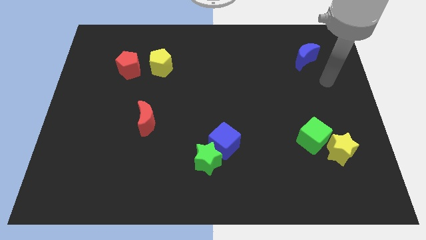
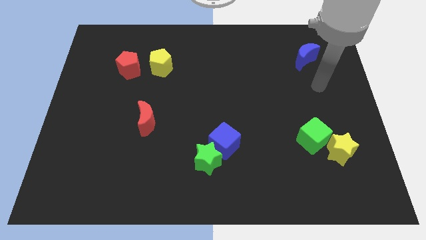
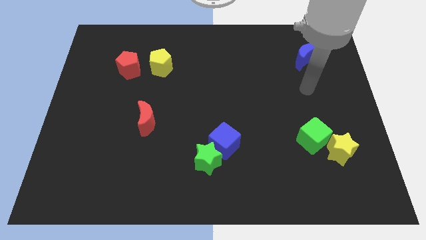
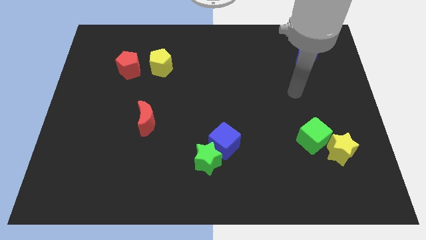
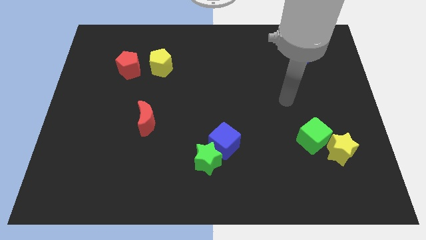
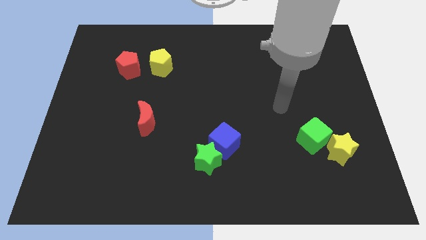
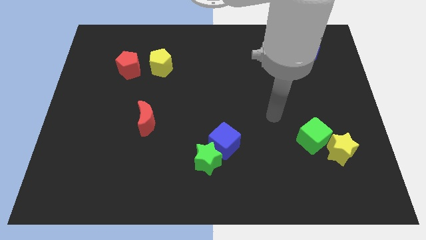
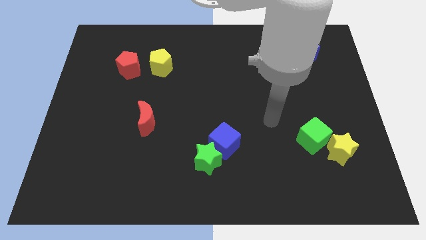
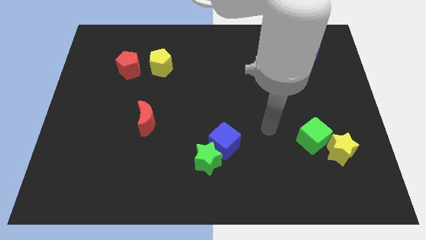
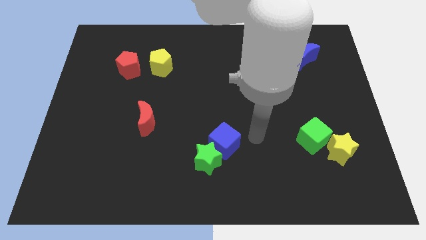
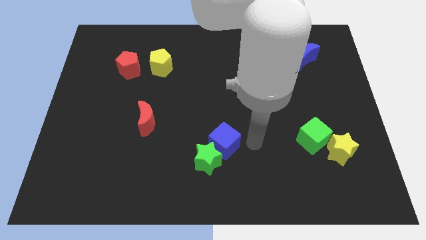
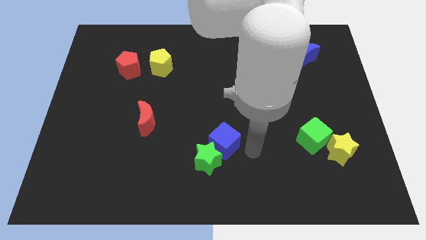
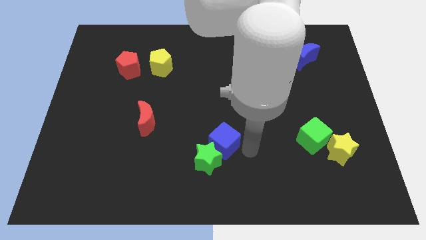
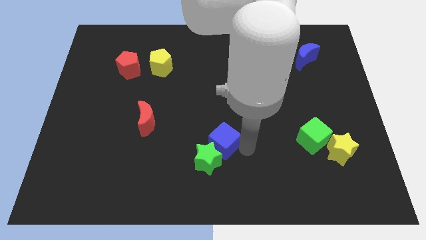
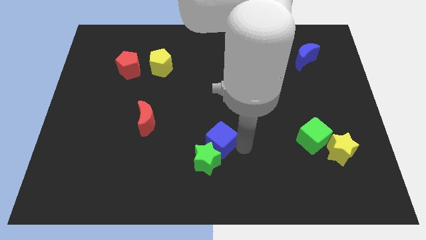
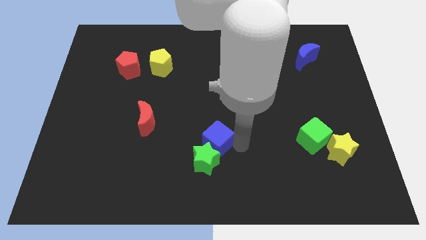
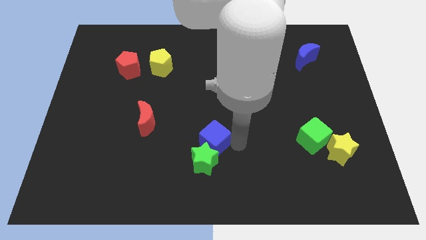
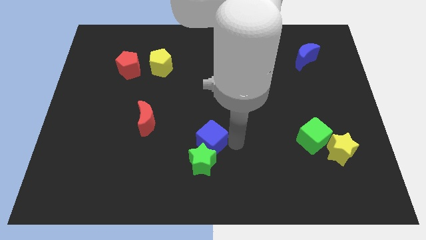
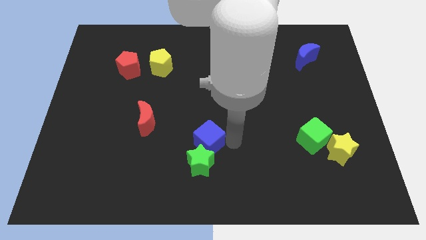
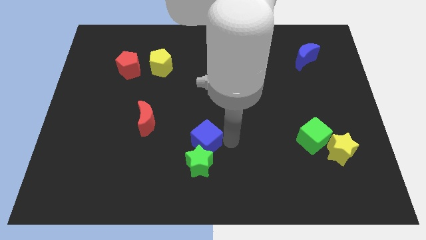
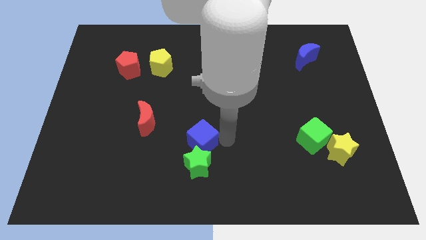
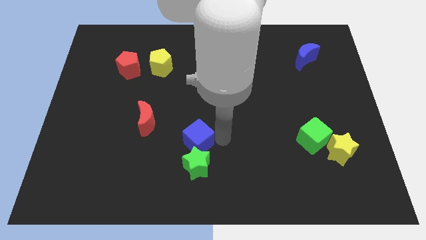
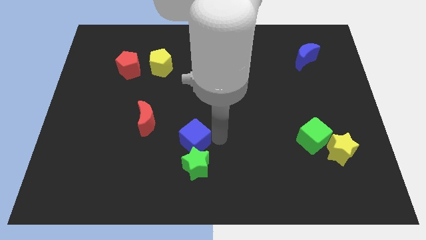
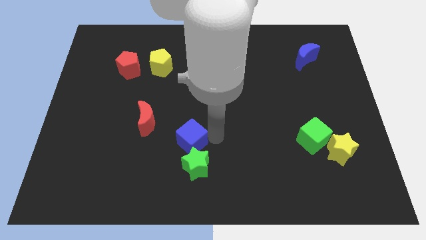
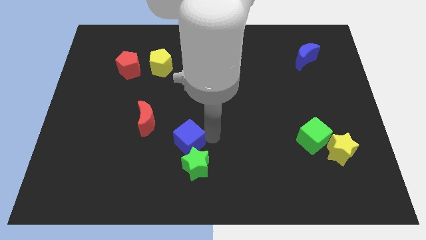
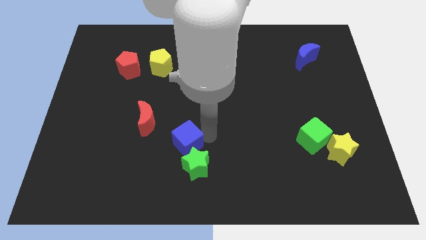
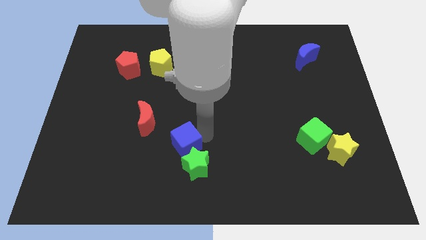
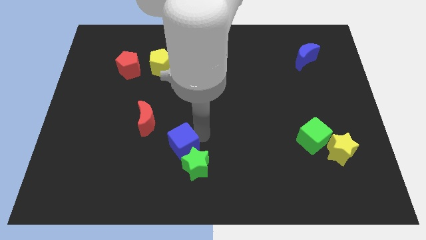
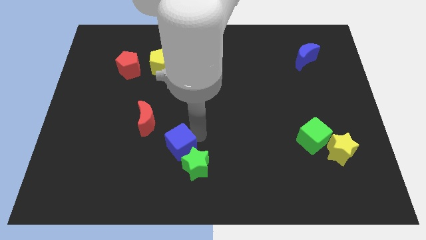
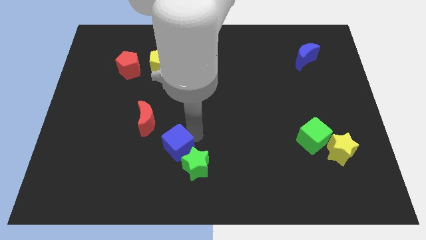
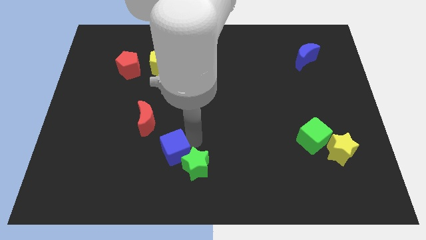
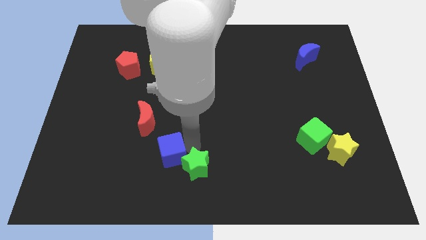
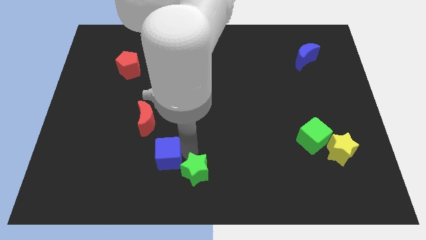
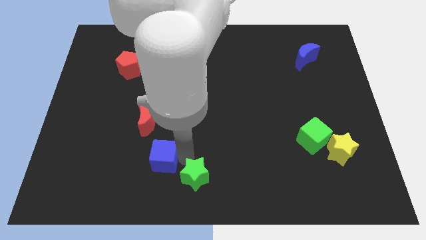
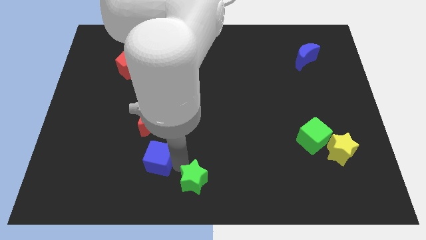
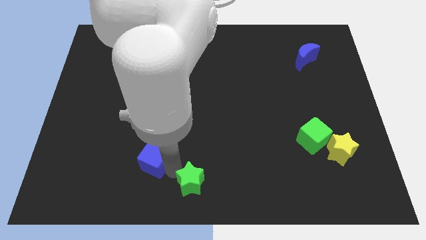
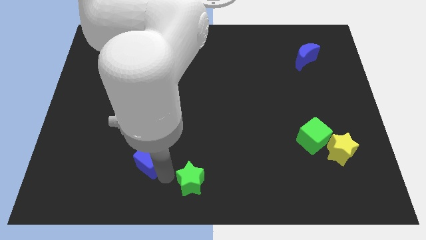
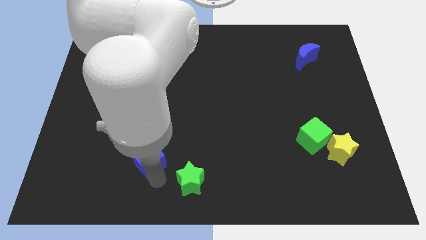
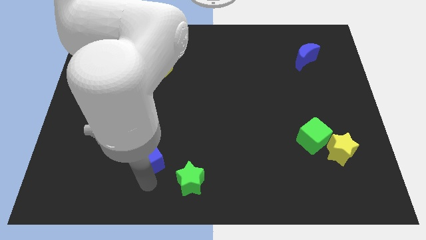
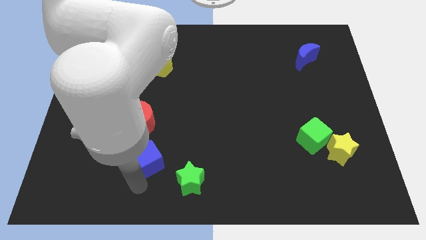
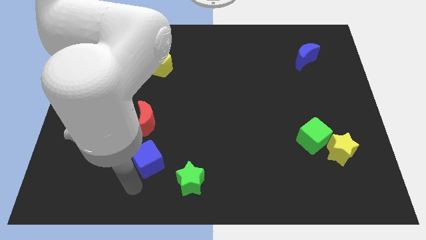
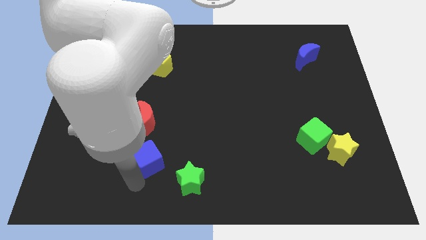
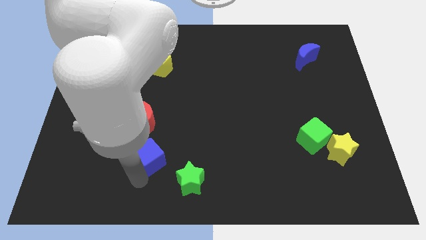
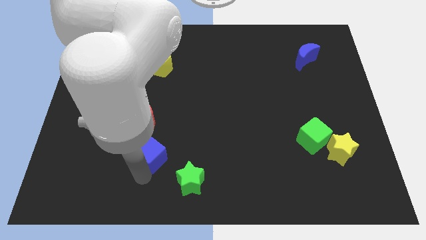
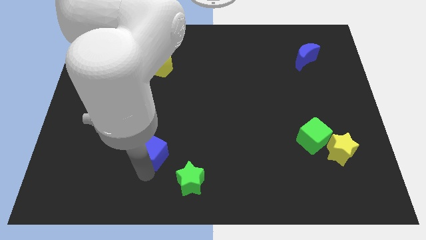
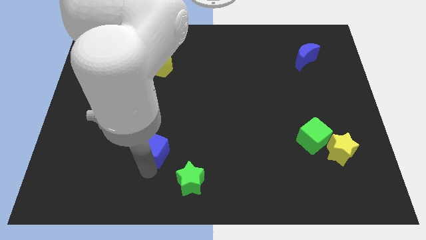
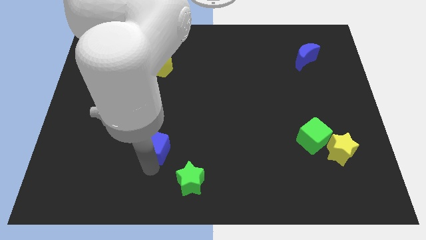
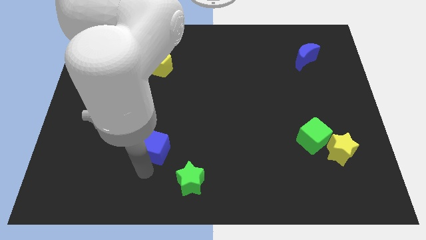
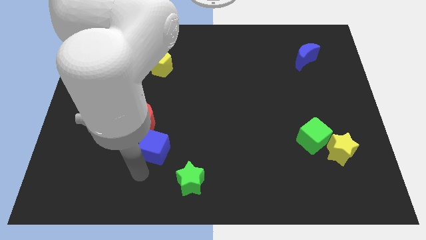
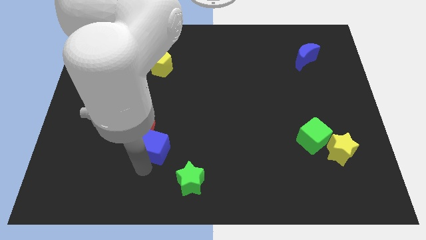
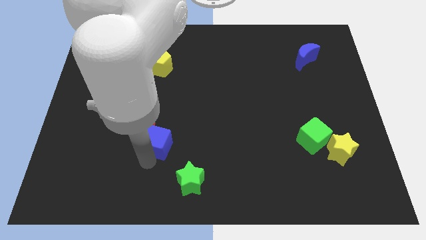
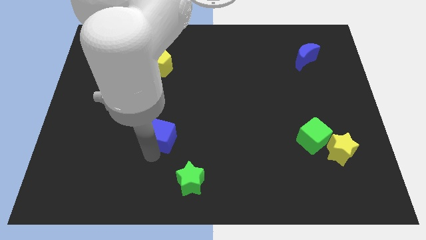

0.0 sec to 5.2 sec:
move the blue cube next to the red moon

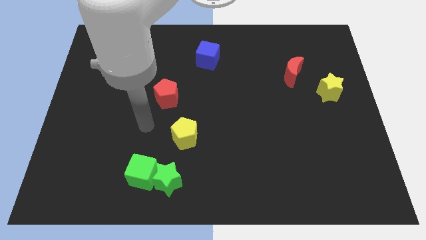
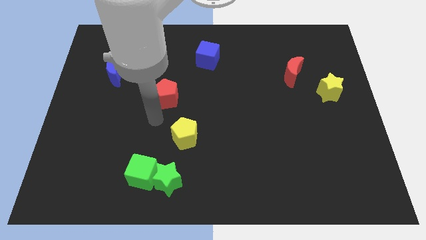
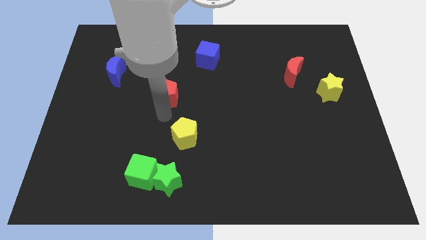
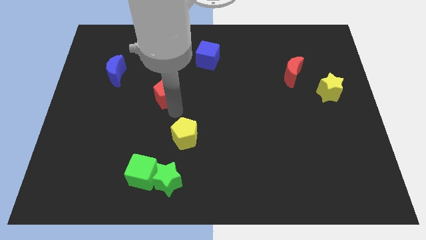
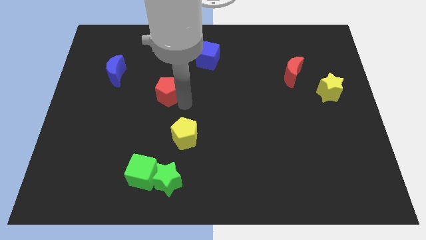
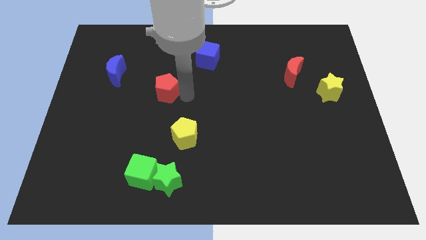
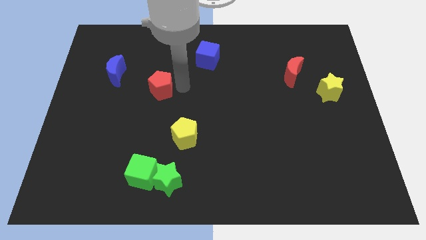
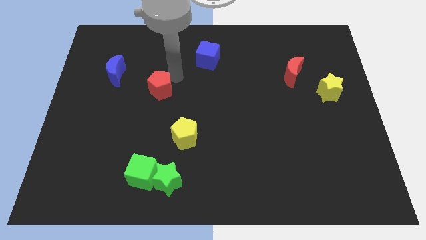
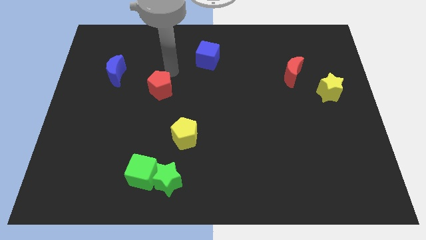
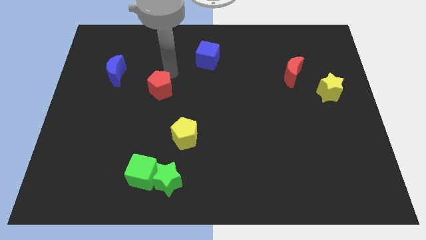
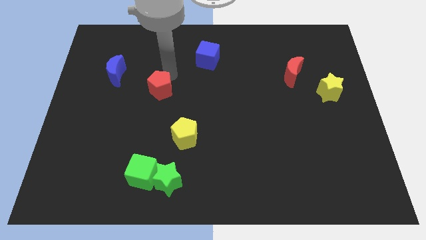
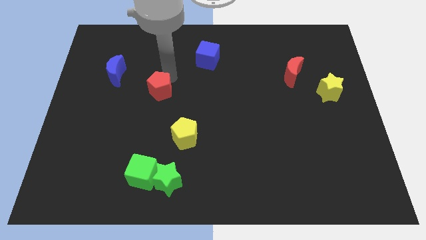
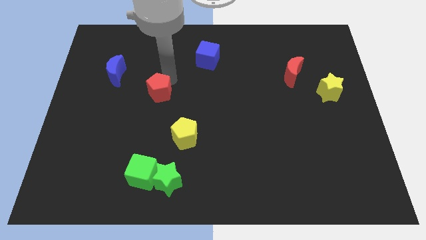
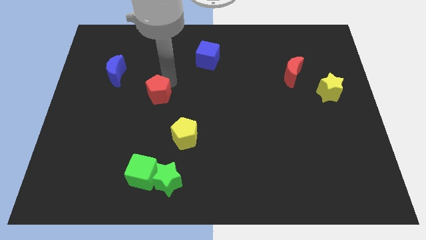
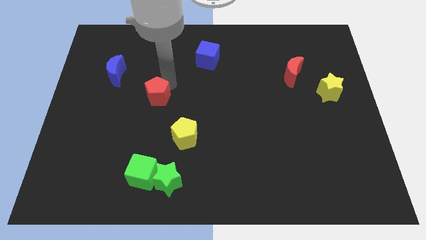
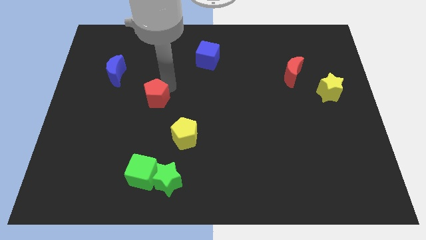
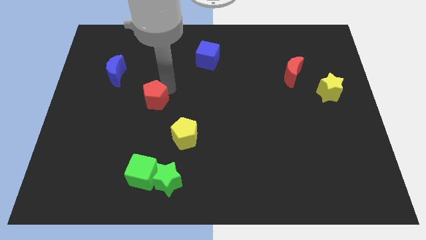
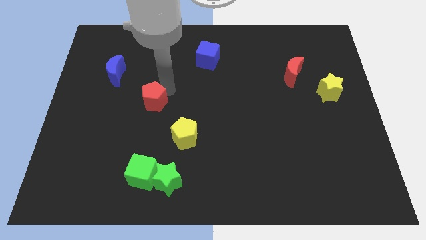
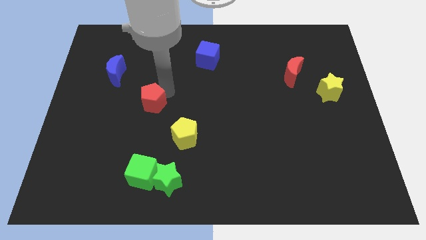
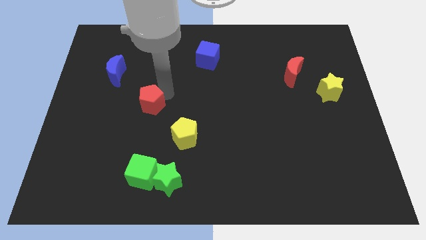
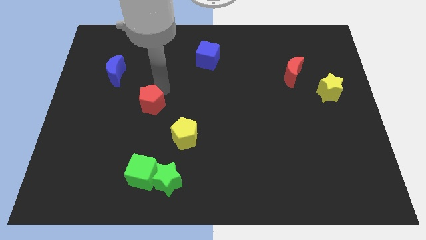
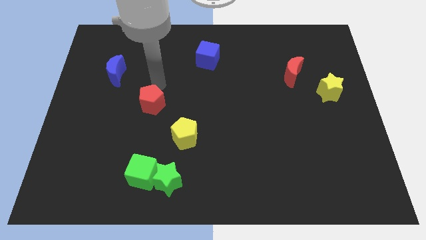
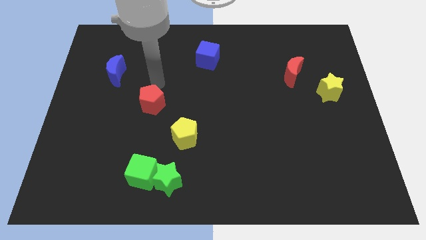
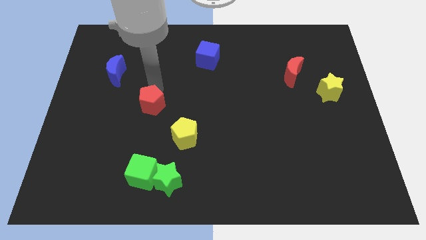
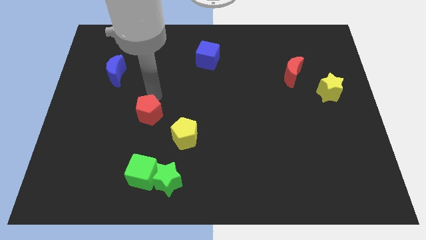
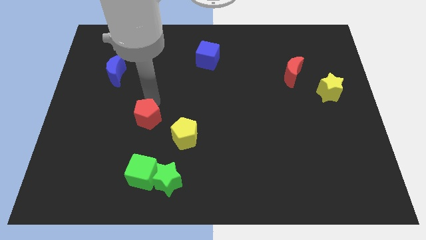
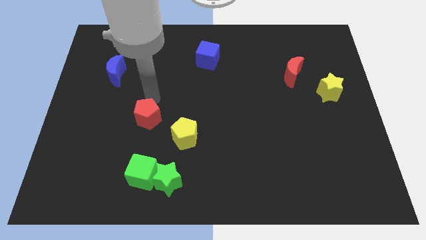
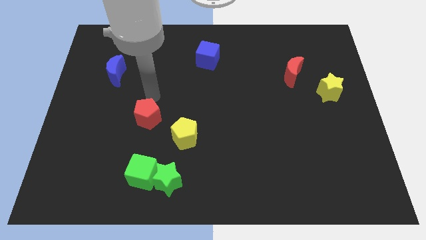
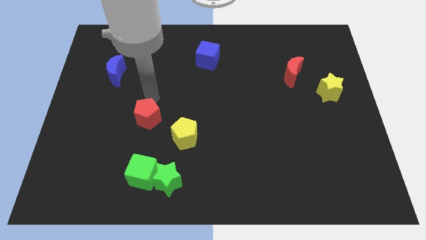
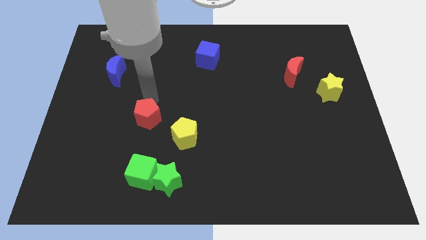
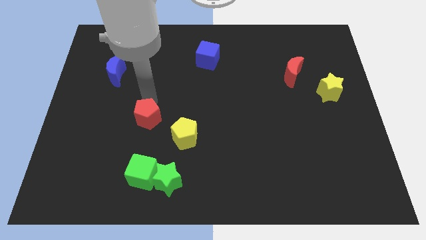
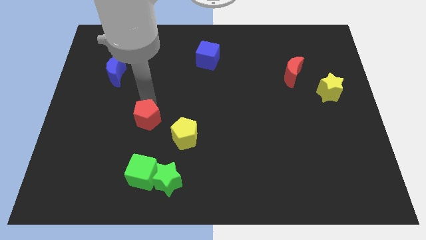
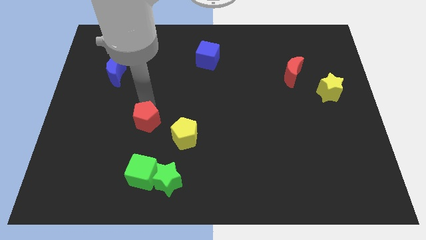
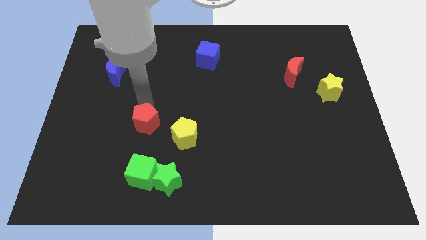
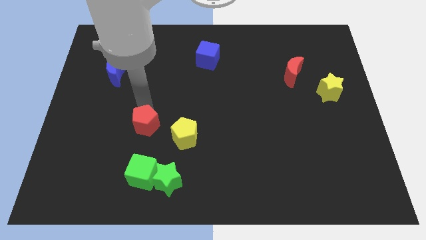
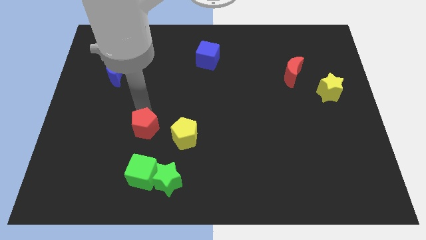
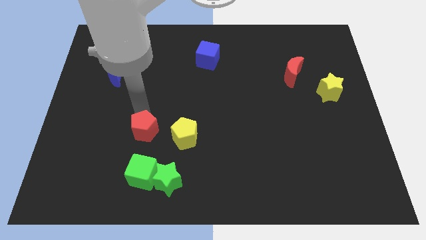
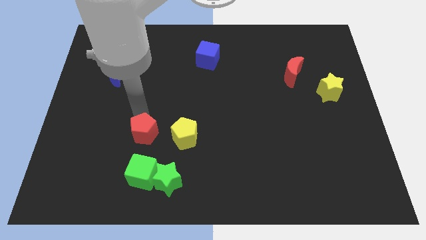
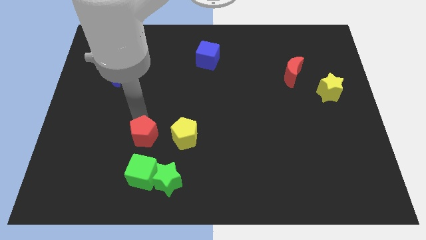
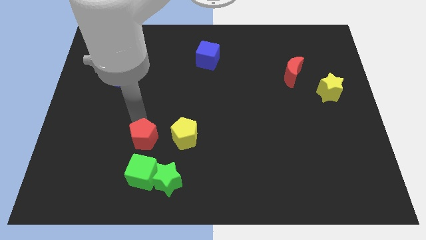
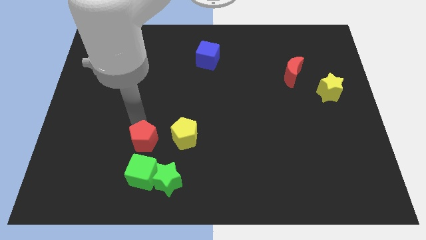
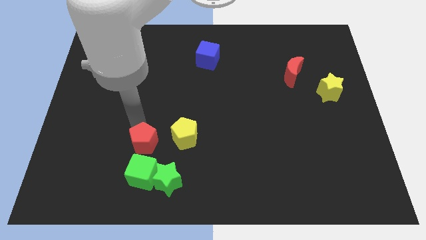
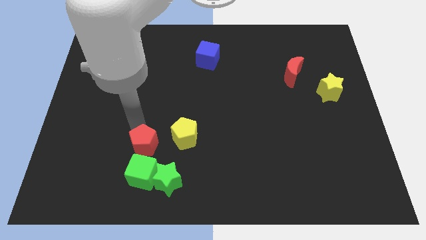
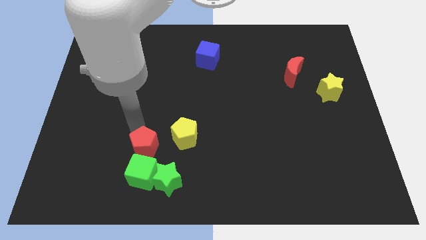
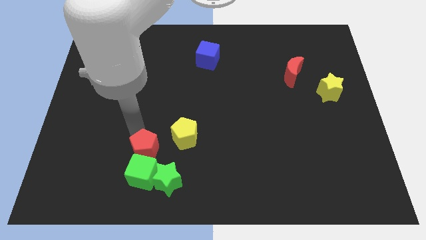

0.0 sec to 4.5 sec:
move the red pentagon towards the green cube
